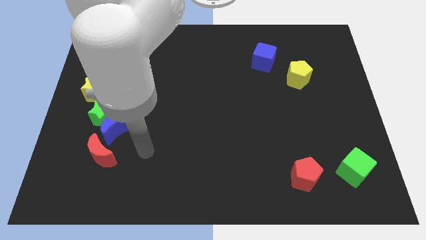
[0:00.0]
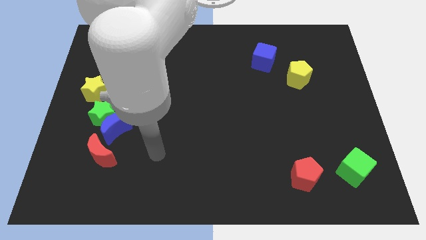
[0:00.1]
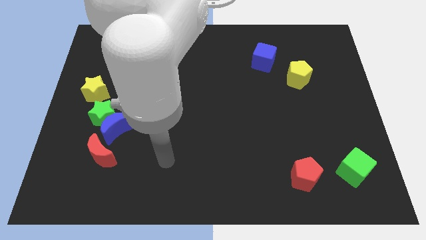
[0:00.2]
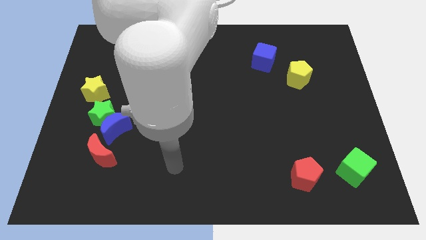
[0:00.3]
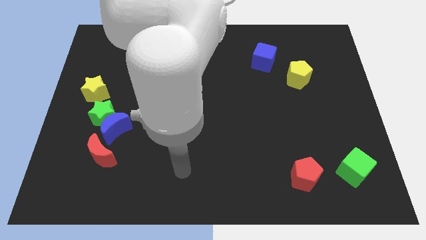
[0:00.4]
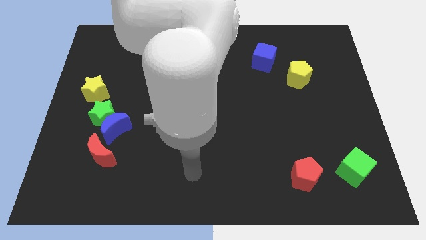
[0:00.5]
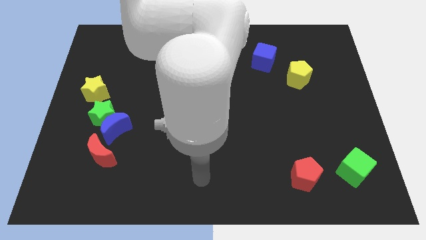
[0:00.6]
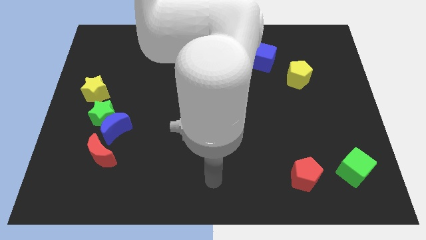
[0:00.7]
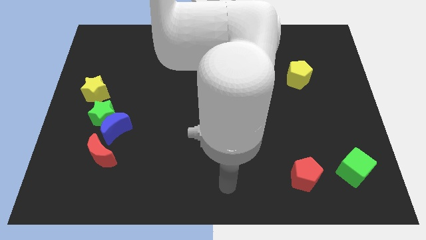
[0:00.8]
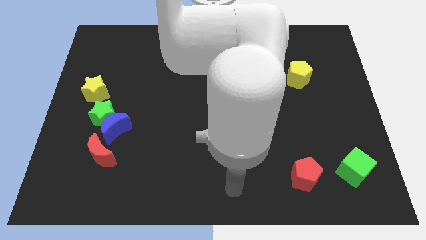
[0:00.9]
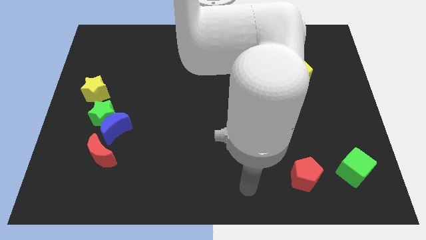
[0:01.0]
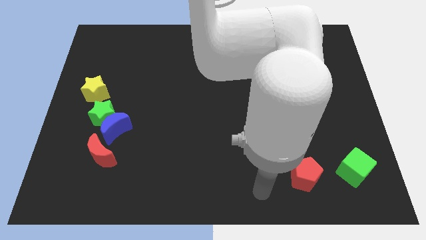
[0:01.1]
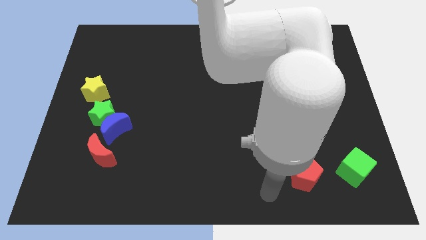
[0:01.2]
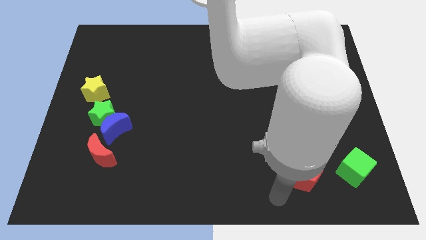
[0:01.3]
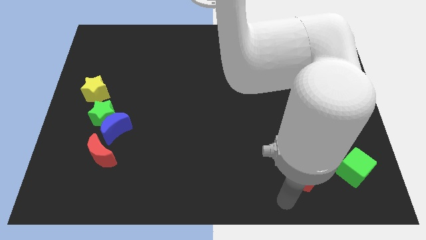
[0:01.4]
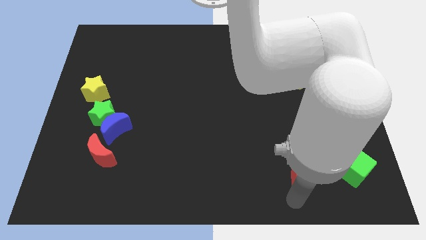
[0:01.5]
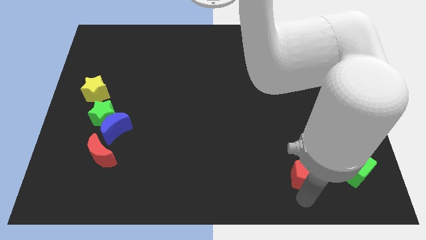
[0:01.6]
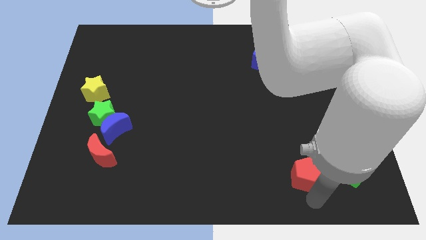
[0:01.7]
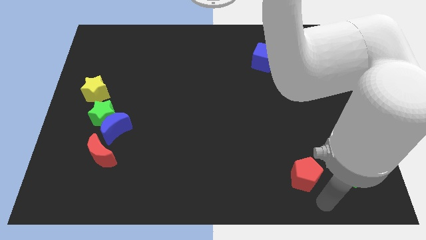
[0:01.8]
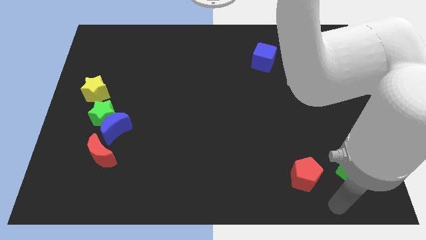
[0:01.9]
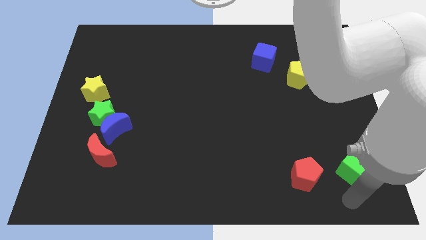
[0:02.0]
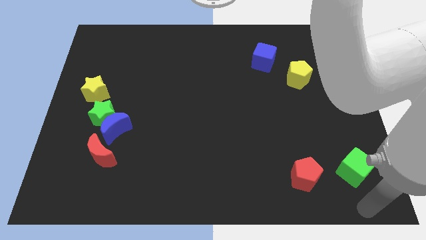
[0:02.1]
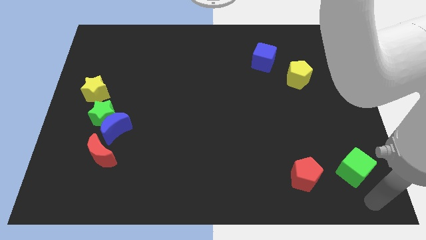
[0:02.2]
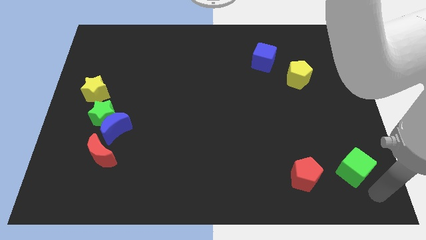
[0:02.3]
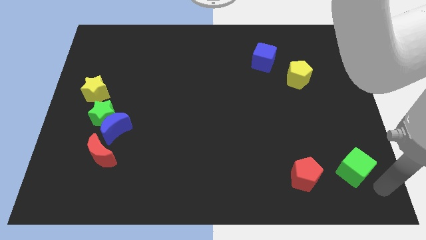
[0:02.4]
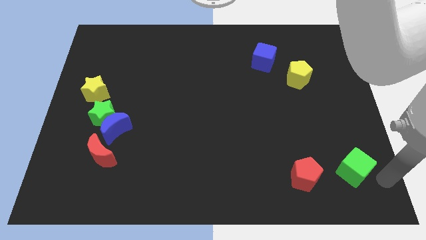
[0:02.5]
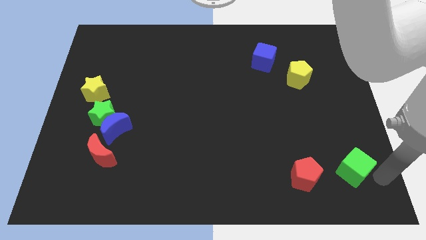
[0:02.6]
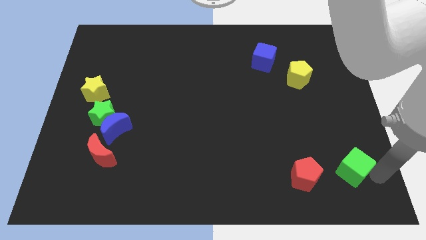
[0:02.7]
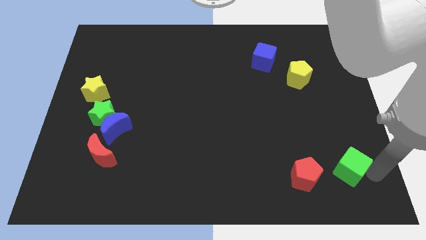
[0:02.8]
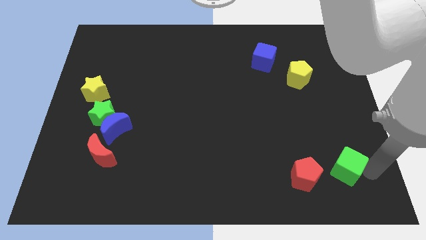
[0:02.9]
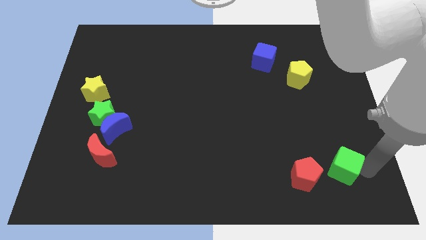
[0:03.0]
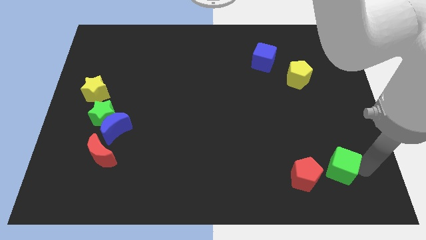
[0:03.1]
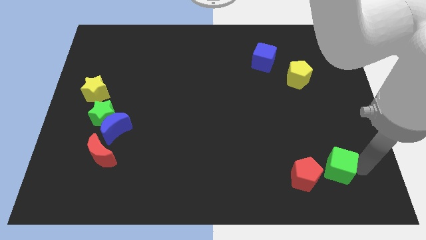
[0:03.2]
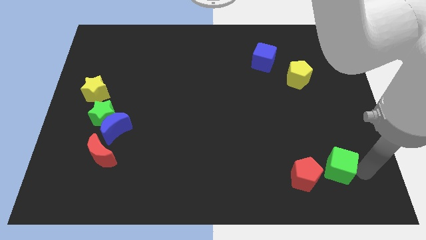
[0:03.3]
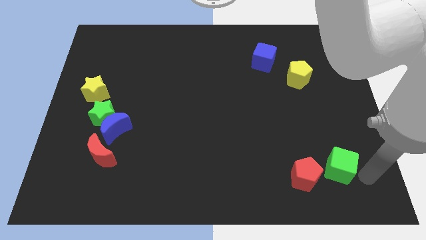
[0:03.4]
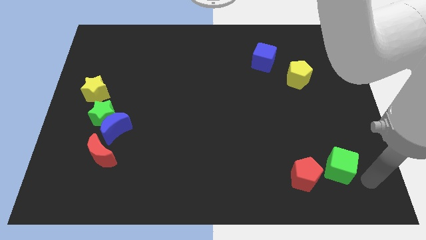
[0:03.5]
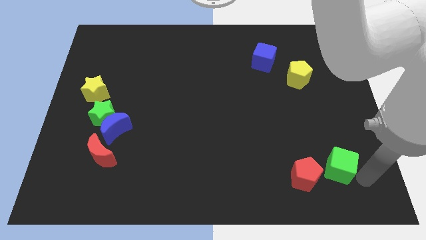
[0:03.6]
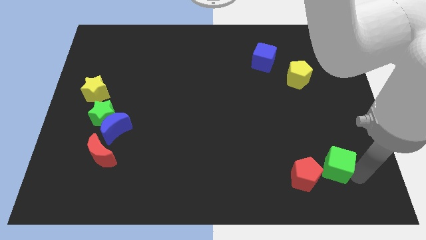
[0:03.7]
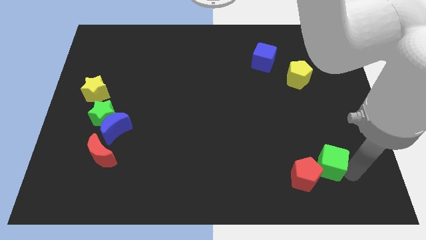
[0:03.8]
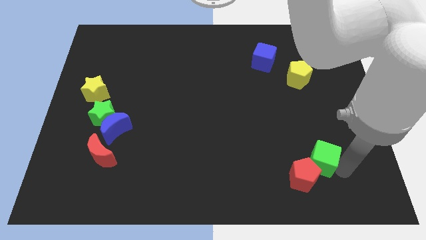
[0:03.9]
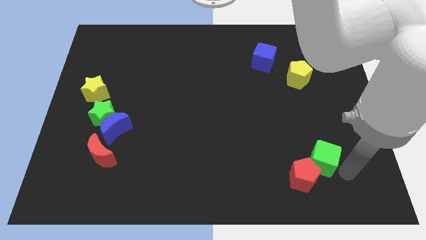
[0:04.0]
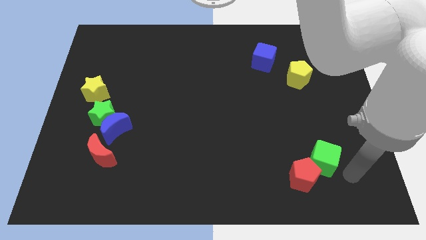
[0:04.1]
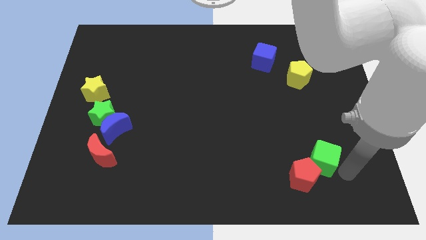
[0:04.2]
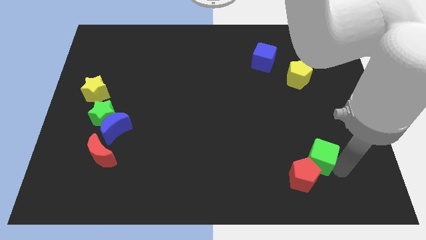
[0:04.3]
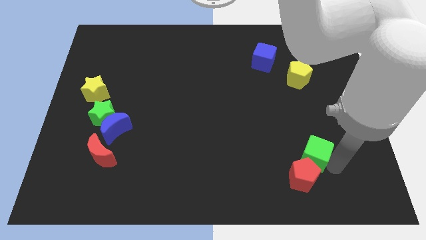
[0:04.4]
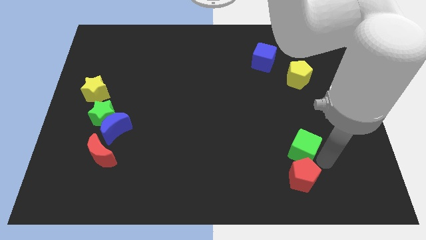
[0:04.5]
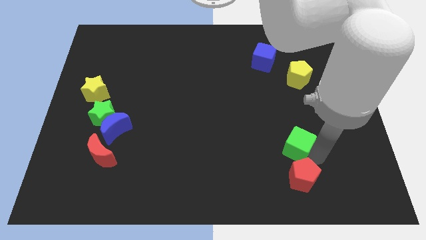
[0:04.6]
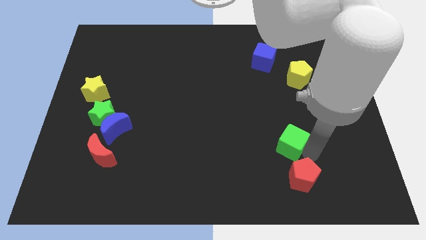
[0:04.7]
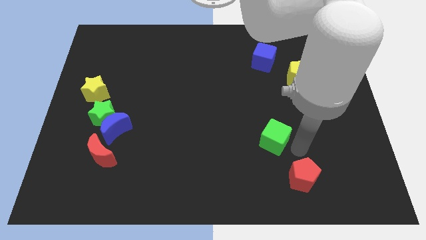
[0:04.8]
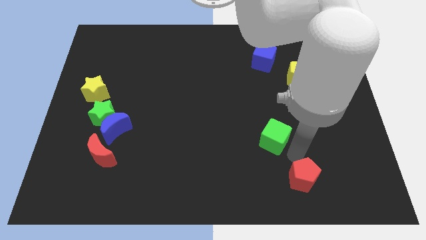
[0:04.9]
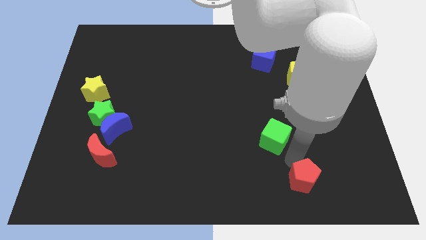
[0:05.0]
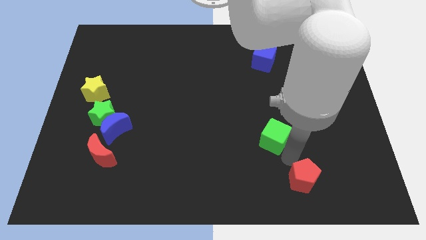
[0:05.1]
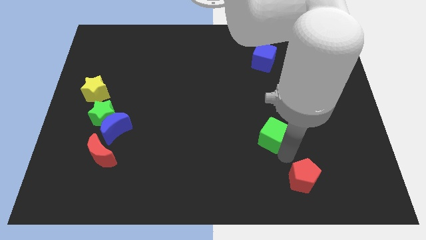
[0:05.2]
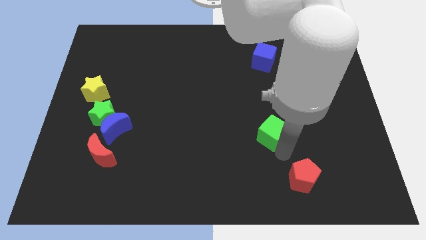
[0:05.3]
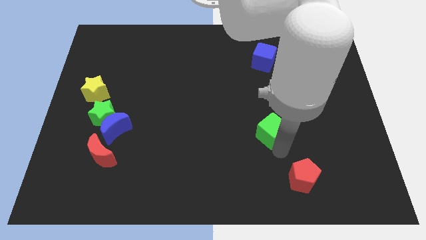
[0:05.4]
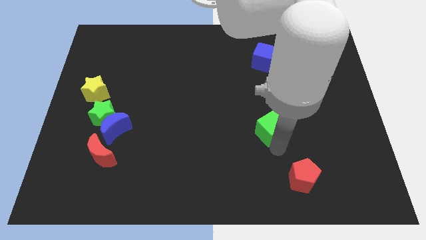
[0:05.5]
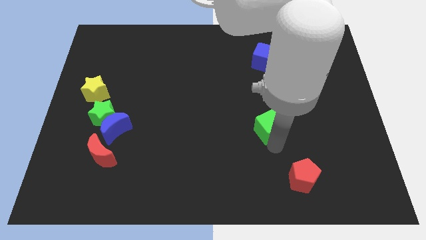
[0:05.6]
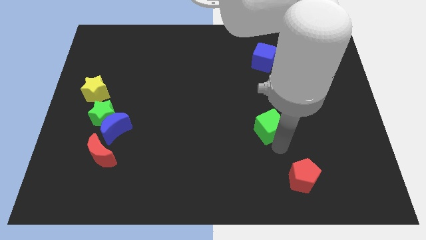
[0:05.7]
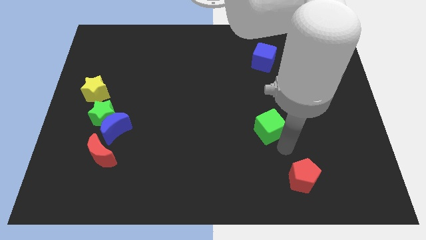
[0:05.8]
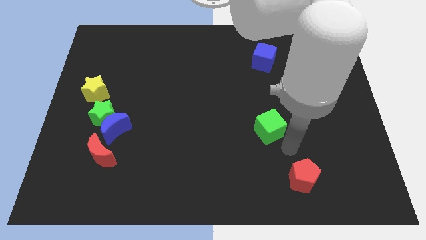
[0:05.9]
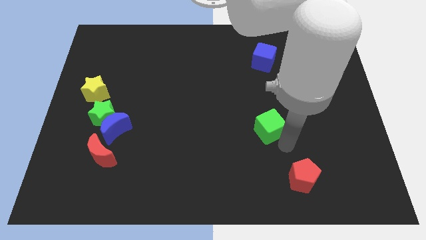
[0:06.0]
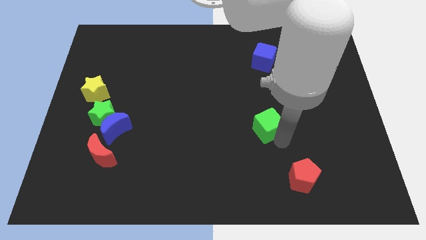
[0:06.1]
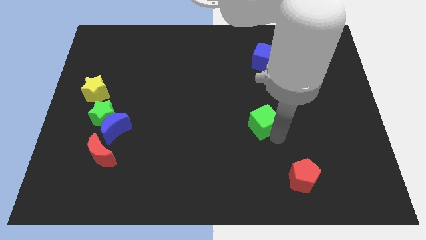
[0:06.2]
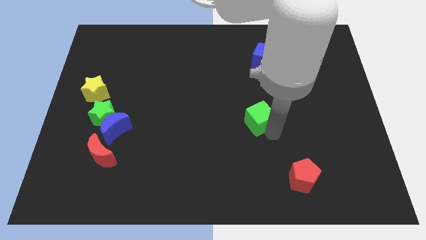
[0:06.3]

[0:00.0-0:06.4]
move the green cube to the middle
